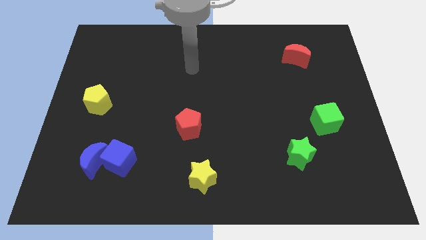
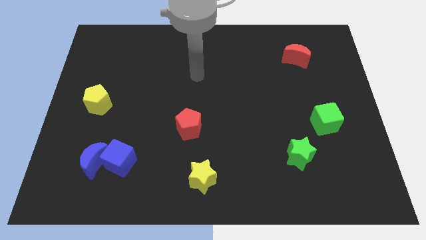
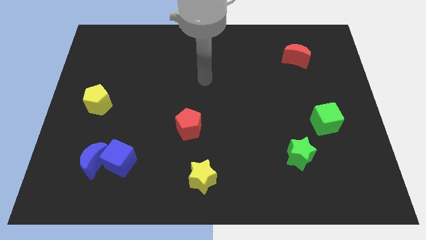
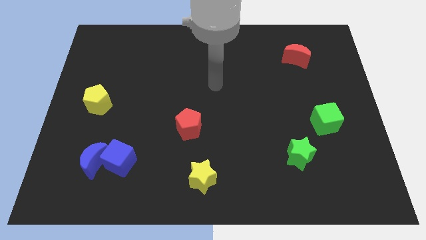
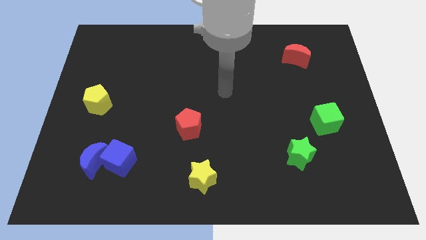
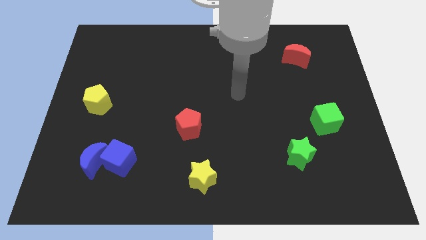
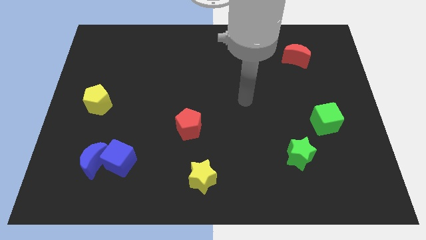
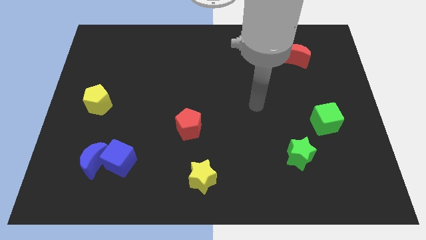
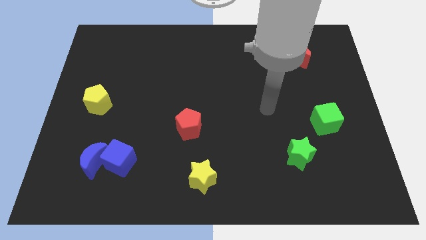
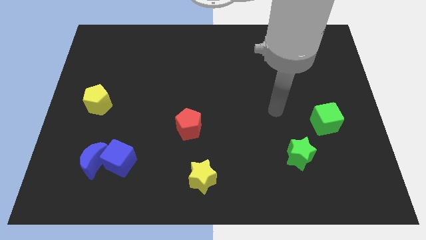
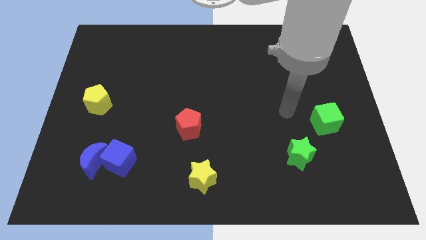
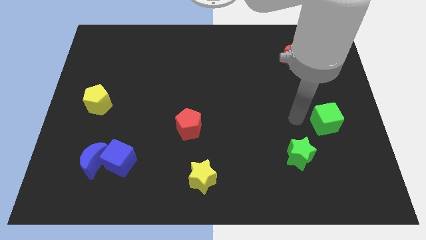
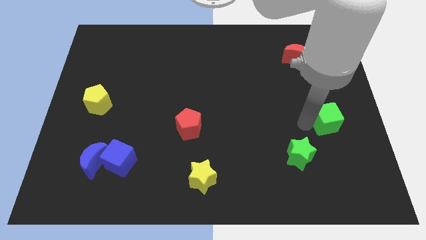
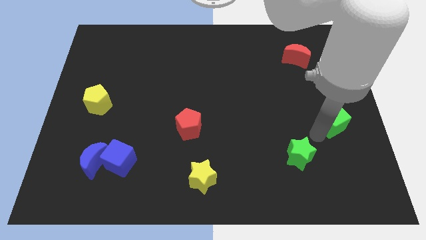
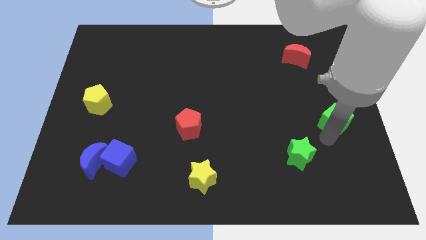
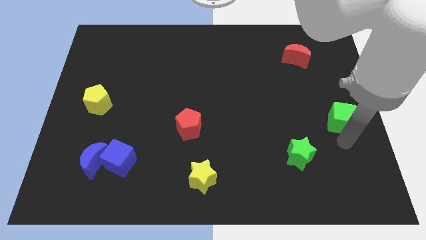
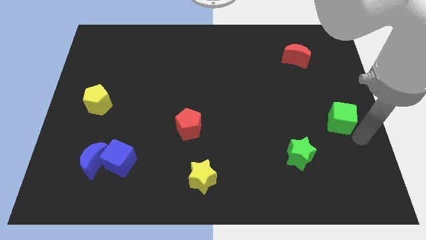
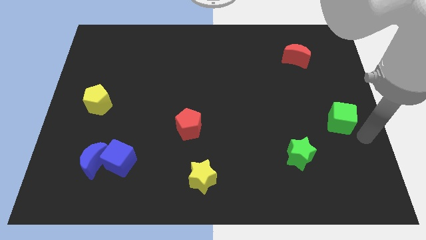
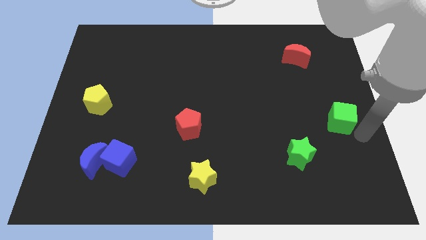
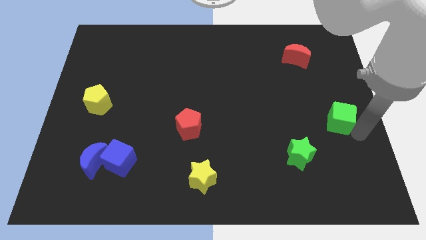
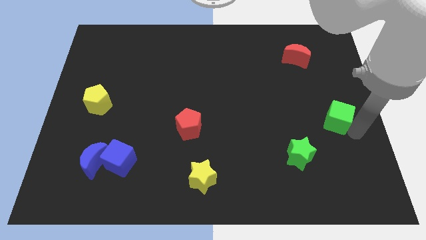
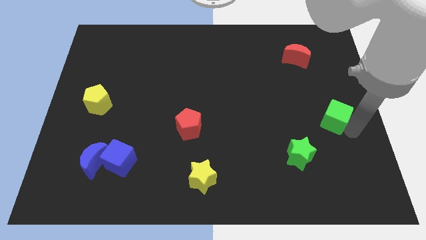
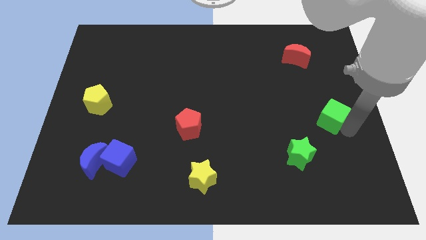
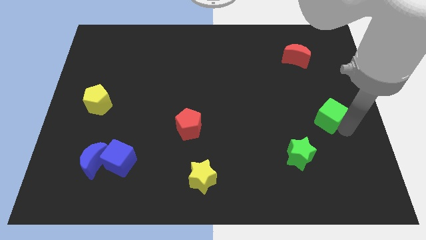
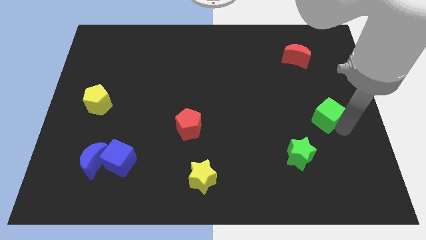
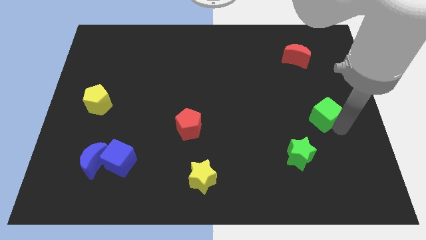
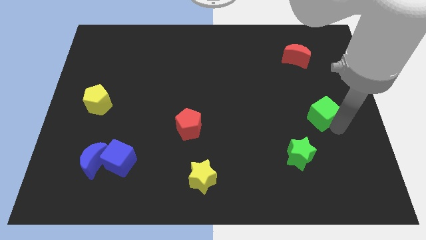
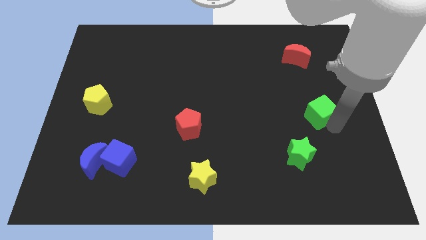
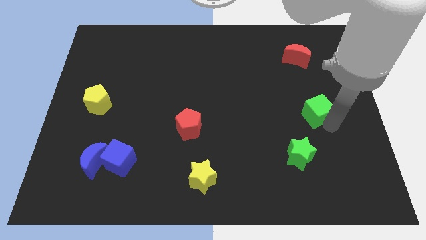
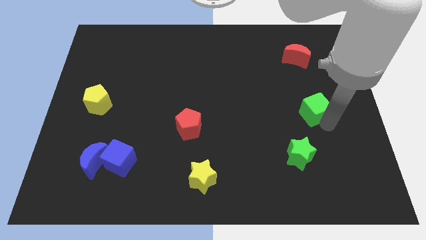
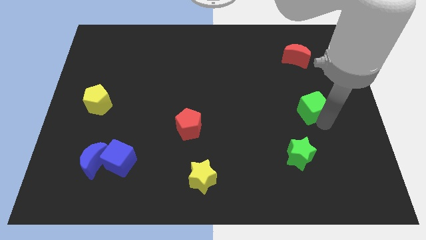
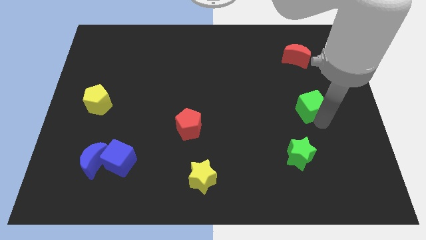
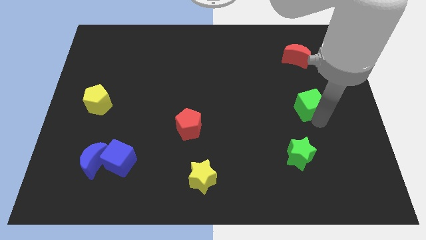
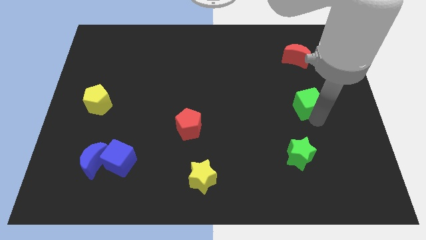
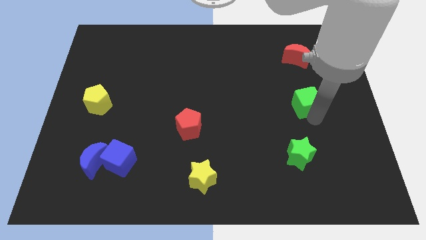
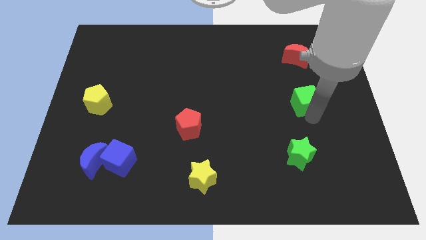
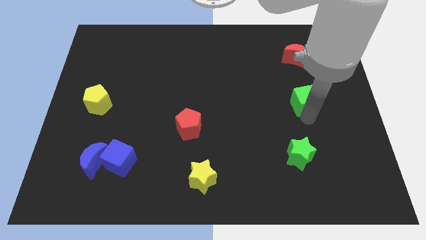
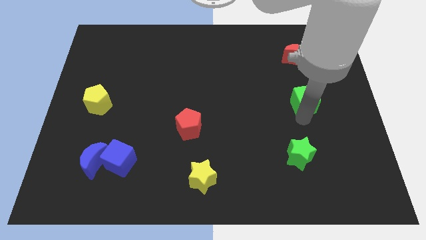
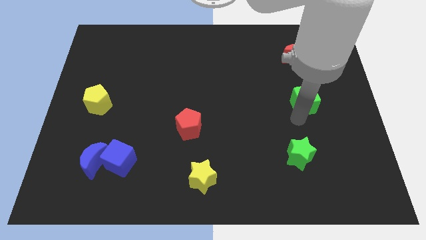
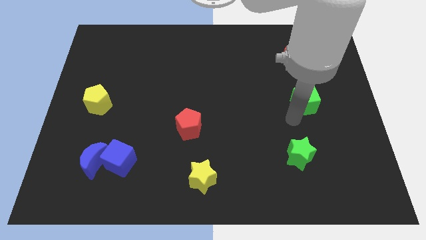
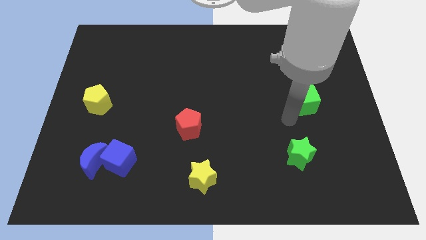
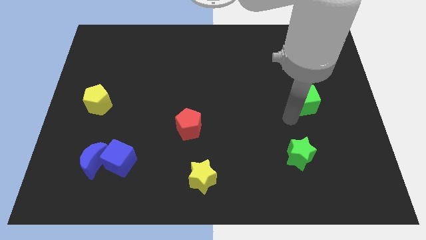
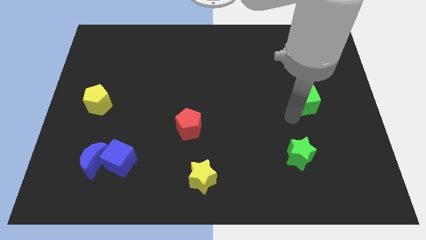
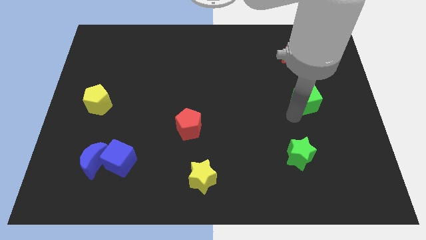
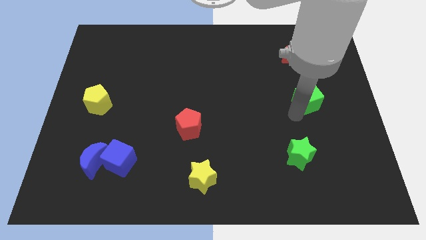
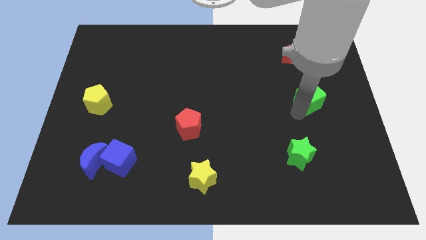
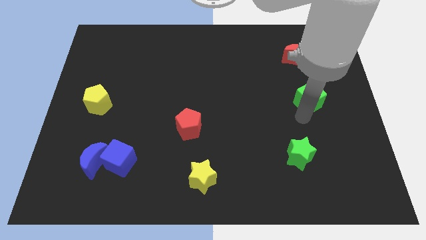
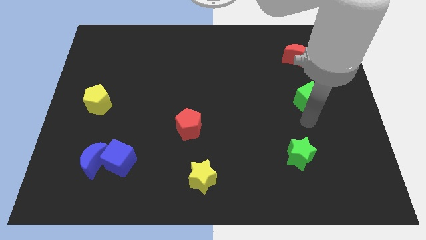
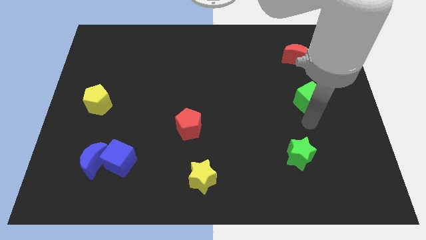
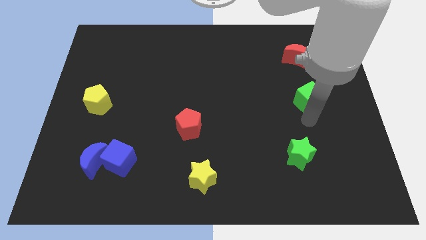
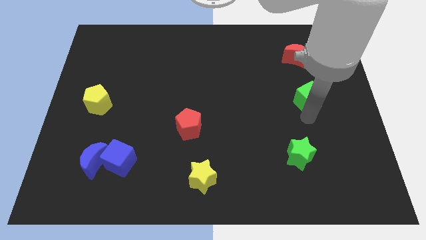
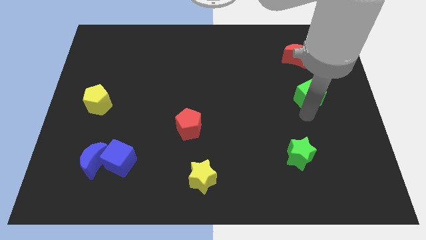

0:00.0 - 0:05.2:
slightly move the green cube upwards

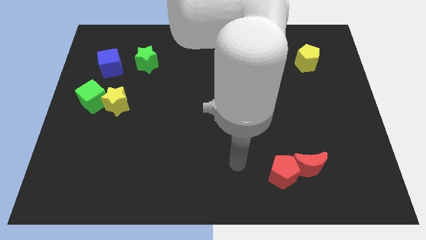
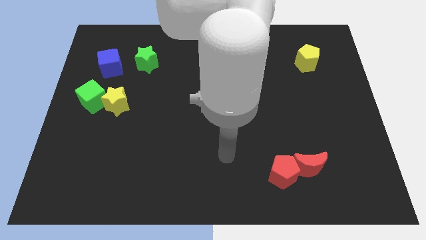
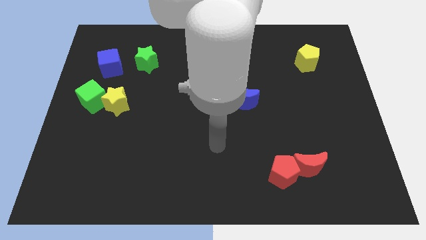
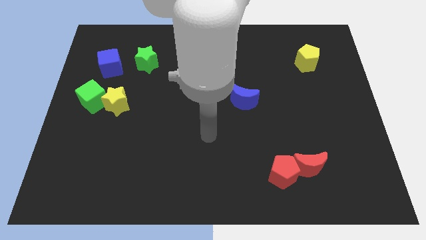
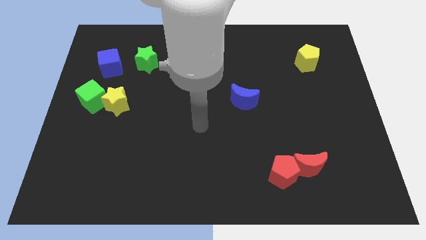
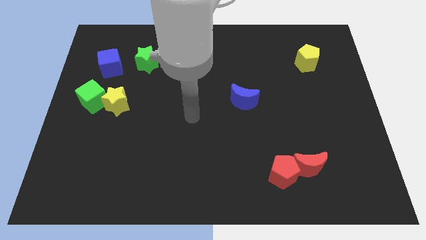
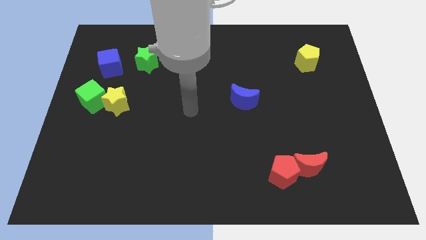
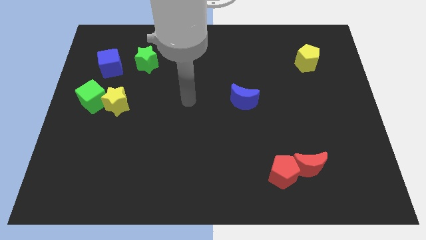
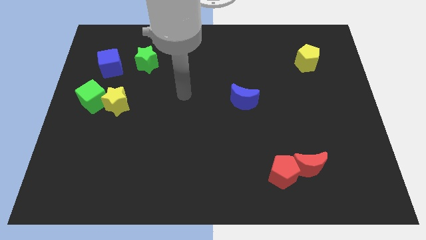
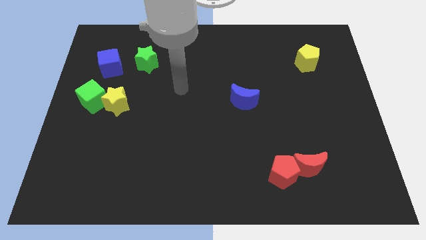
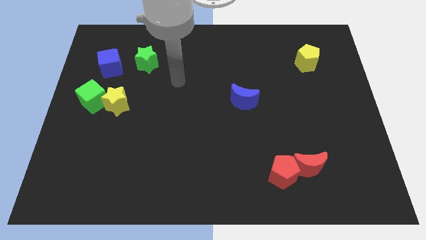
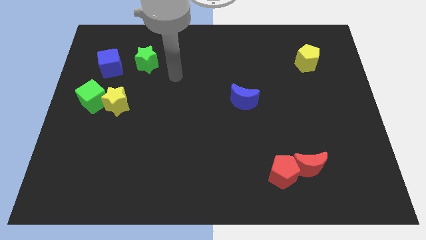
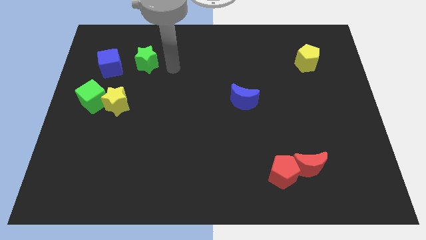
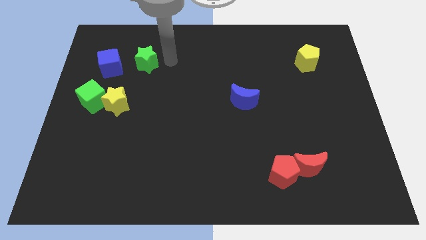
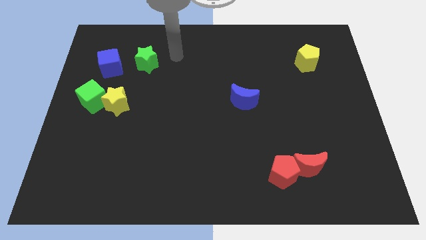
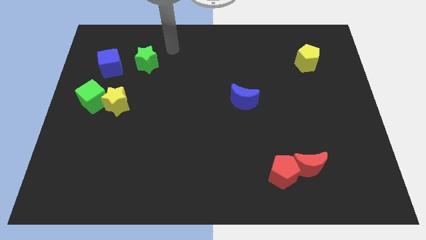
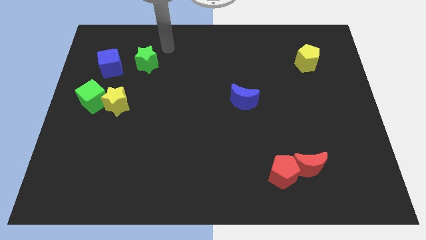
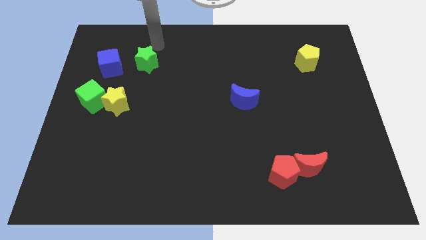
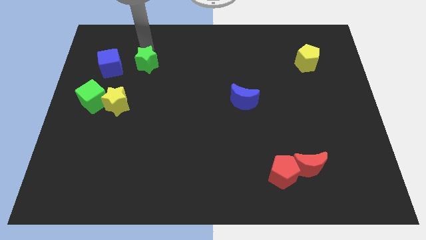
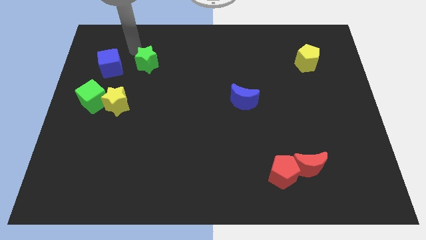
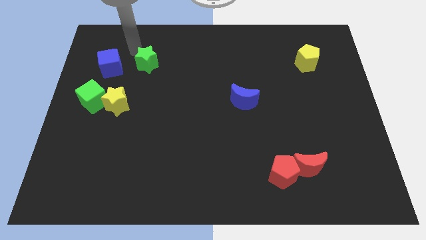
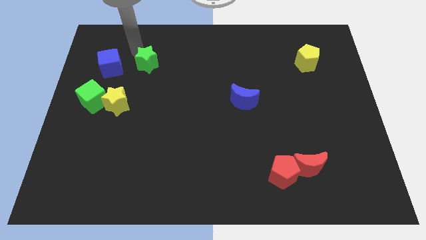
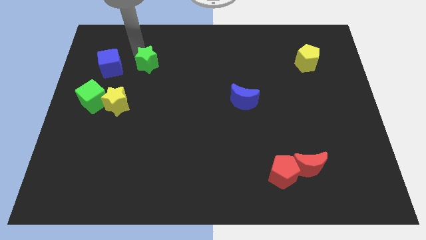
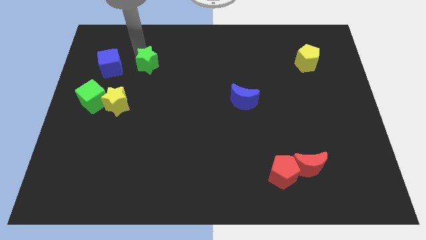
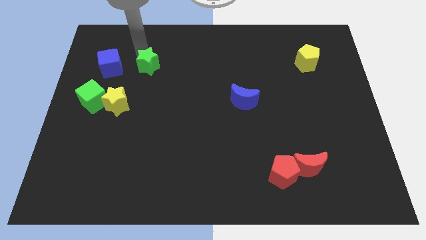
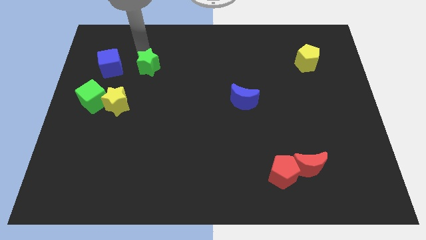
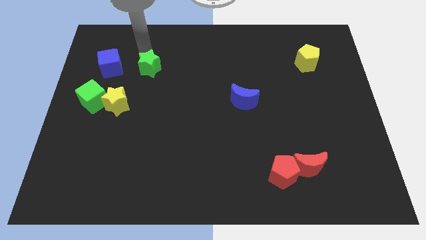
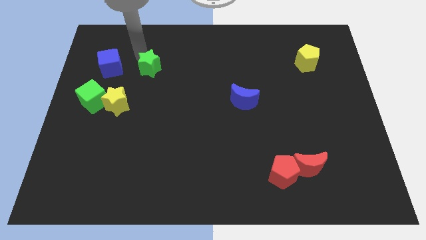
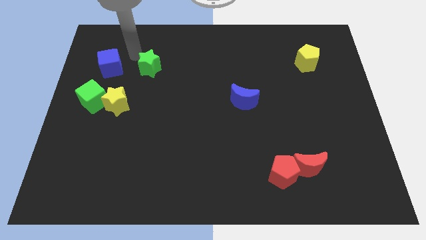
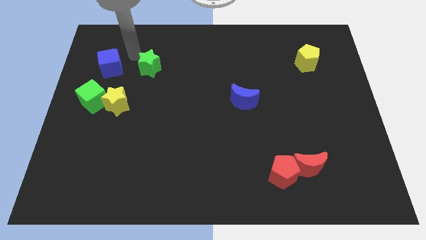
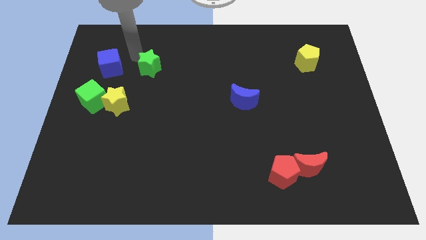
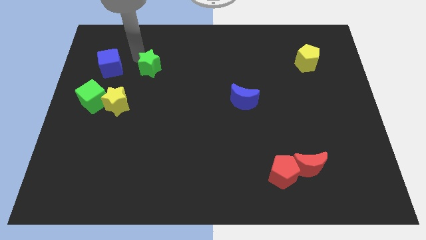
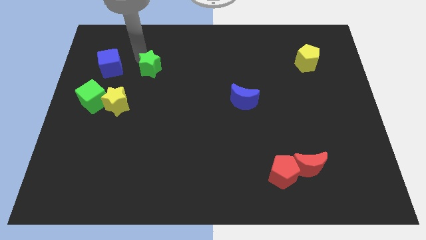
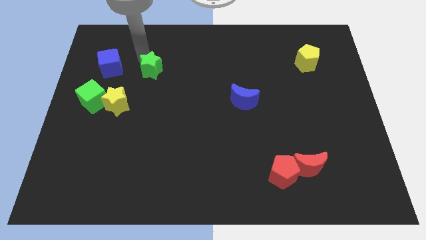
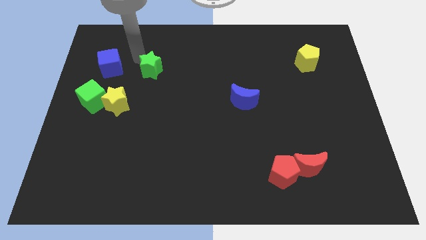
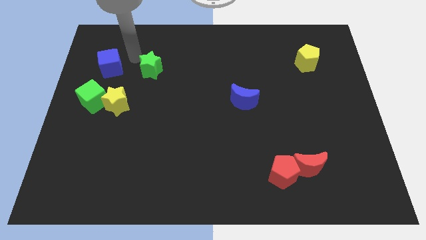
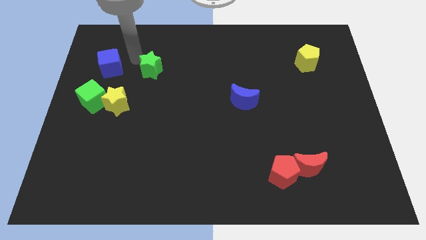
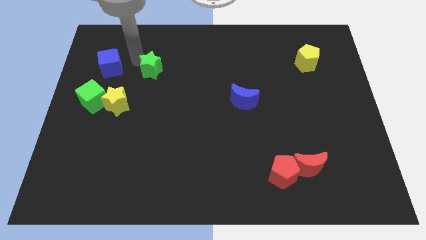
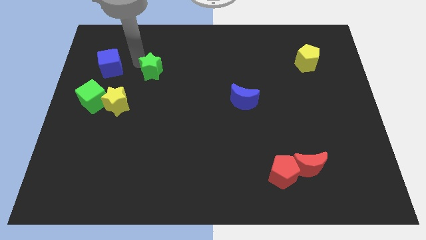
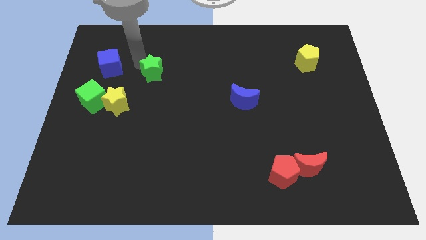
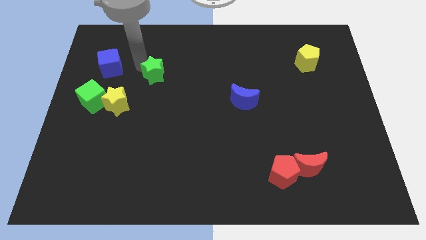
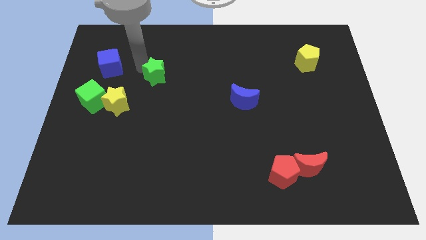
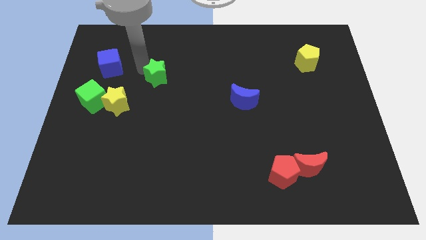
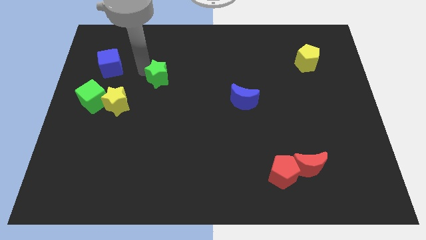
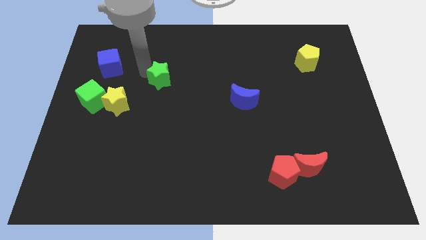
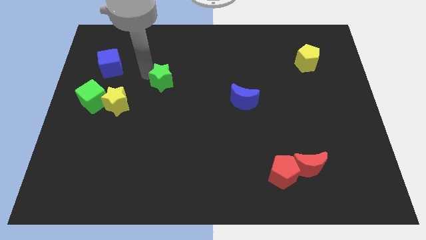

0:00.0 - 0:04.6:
slightly move the green star diagonally downwards and right
